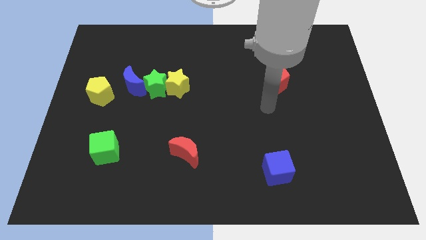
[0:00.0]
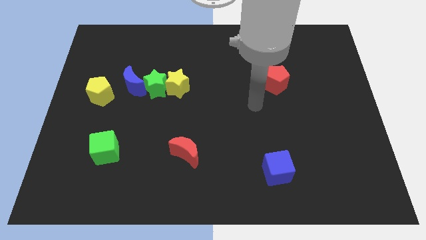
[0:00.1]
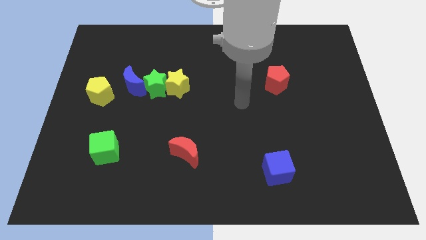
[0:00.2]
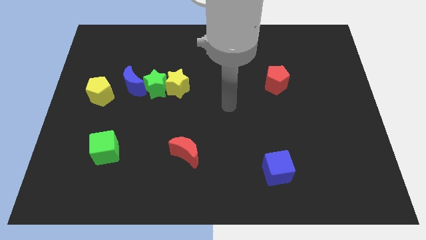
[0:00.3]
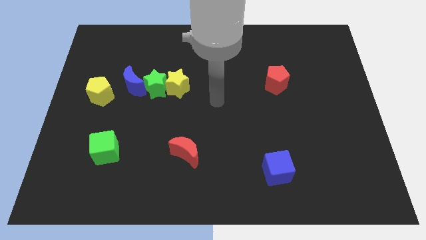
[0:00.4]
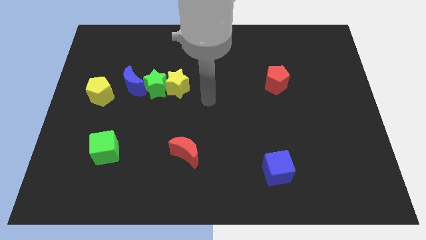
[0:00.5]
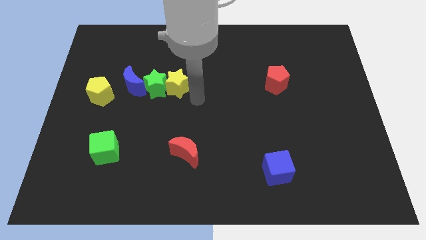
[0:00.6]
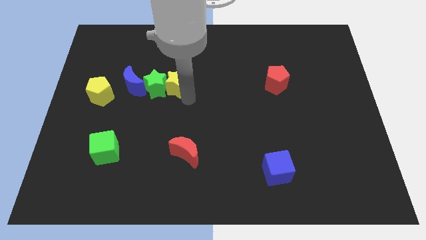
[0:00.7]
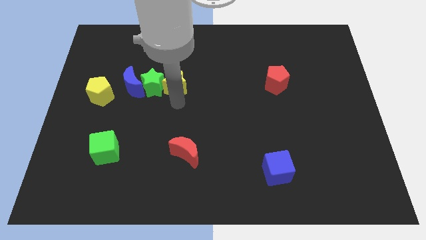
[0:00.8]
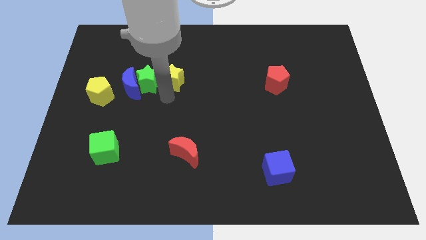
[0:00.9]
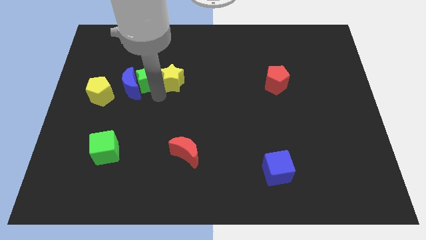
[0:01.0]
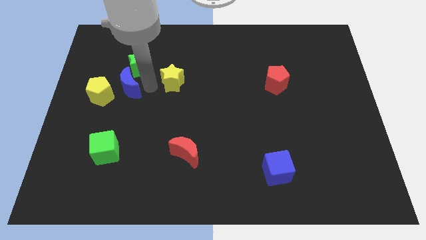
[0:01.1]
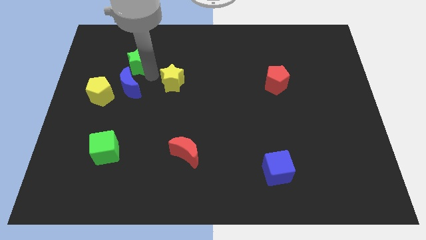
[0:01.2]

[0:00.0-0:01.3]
pull the yellow star apart from the green star

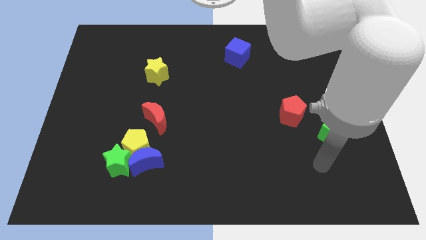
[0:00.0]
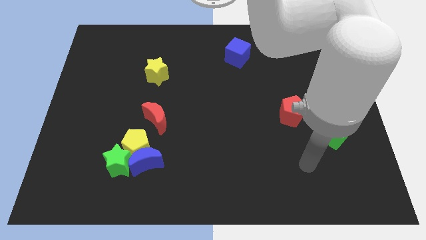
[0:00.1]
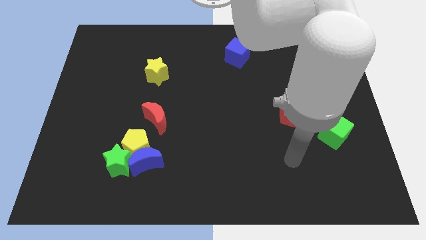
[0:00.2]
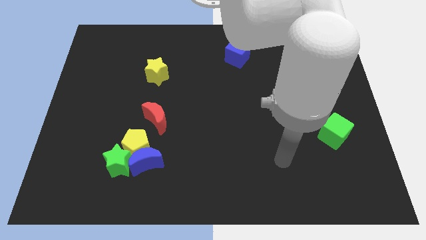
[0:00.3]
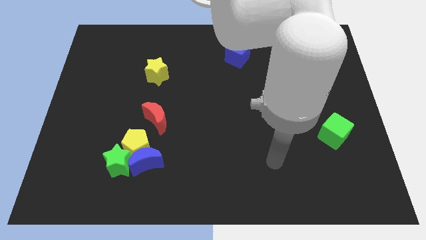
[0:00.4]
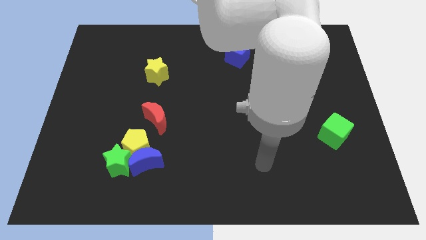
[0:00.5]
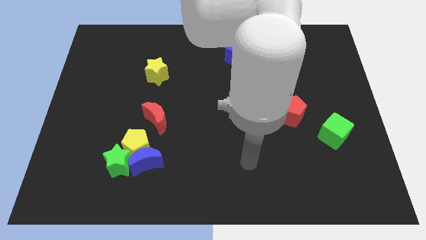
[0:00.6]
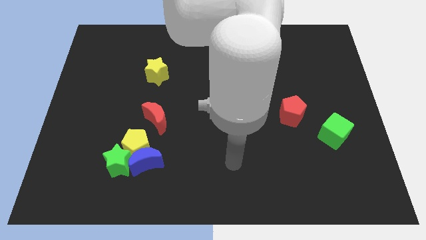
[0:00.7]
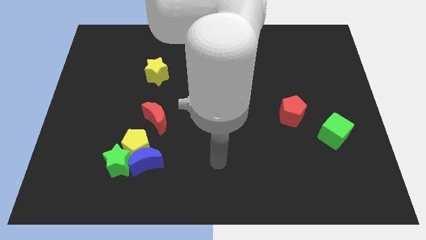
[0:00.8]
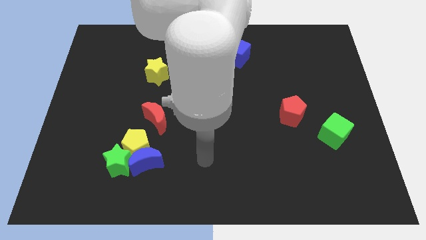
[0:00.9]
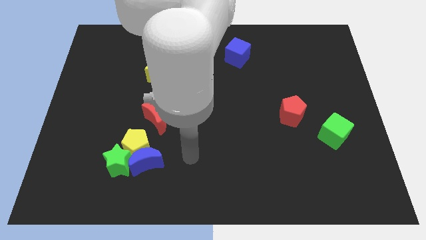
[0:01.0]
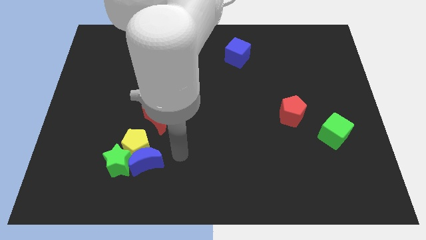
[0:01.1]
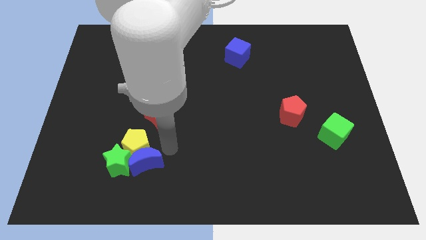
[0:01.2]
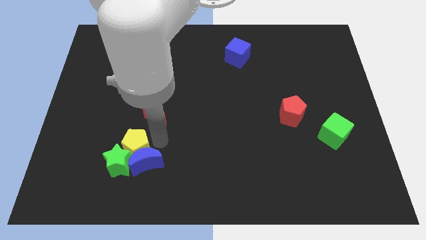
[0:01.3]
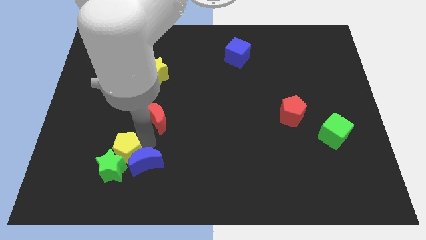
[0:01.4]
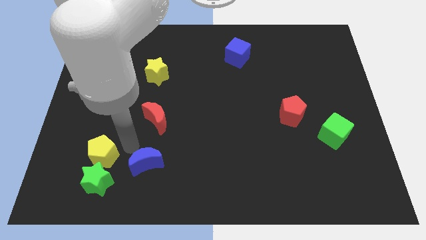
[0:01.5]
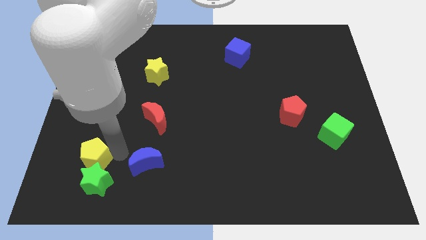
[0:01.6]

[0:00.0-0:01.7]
move the blue moon away from the yellow pentagon and green star

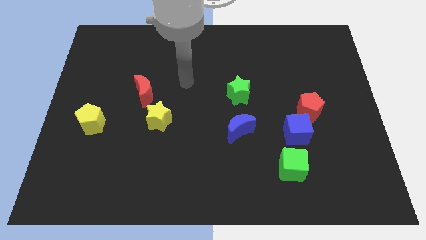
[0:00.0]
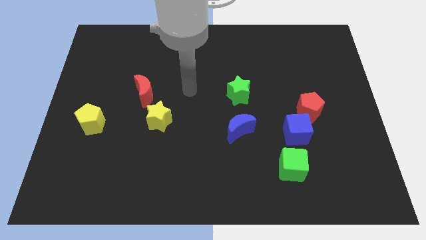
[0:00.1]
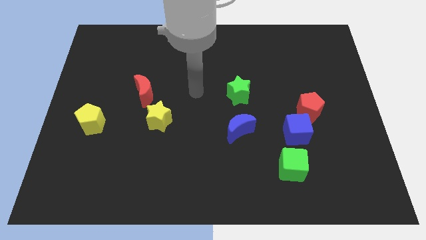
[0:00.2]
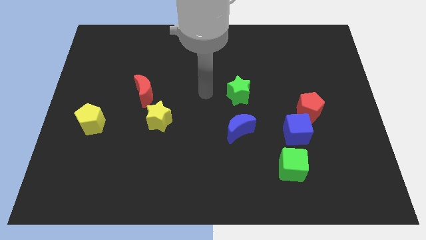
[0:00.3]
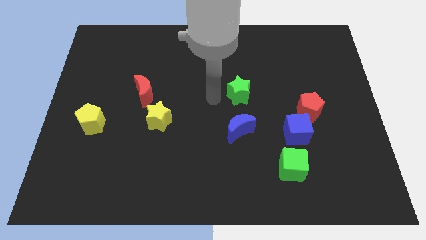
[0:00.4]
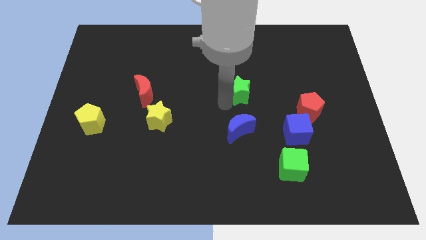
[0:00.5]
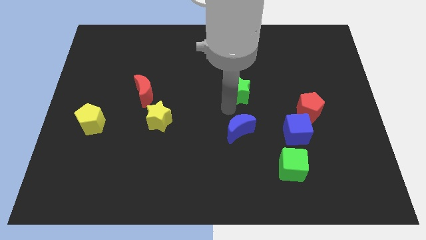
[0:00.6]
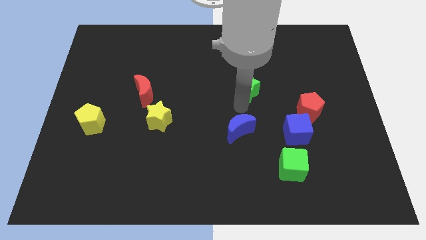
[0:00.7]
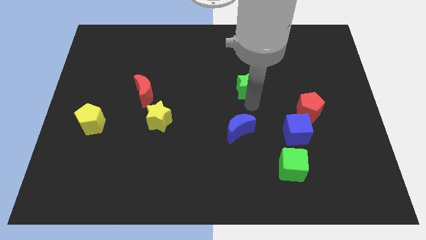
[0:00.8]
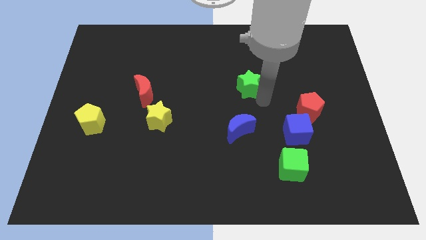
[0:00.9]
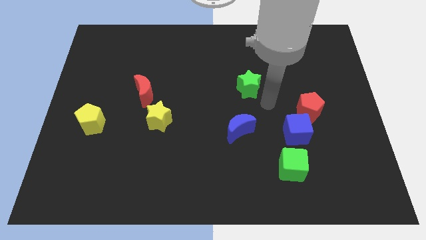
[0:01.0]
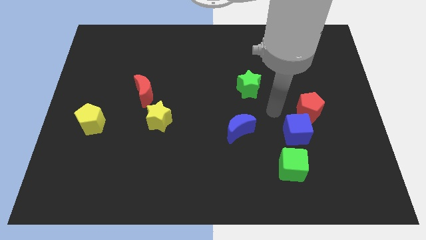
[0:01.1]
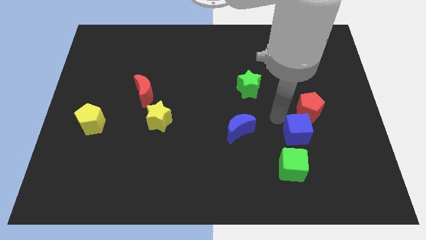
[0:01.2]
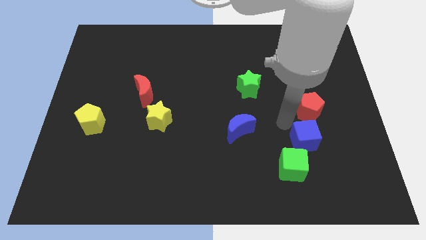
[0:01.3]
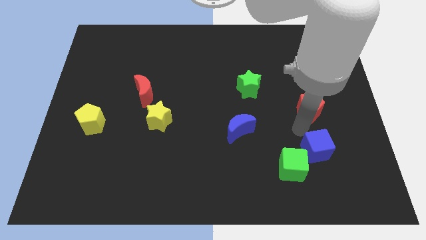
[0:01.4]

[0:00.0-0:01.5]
pull the red pentagon apart from the blue cube

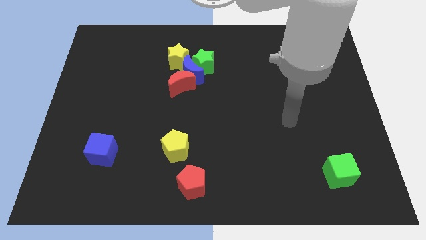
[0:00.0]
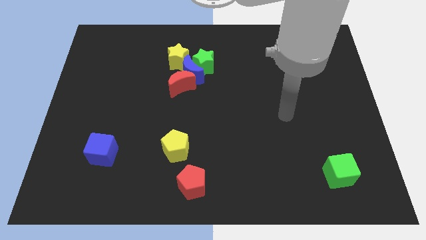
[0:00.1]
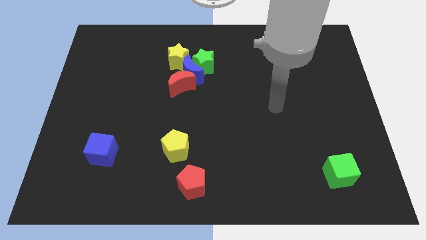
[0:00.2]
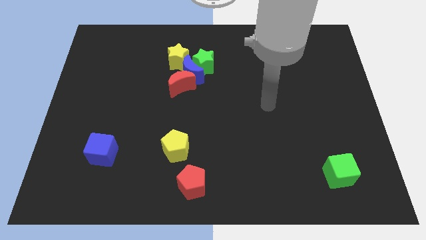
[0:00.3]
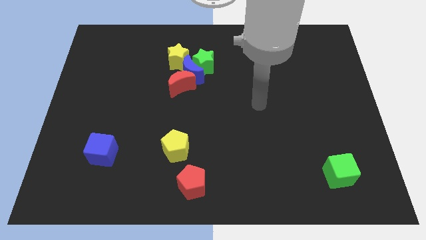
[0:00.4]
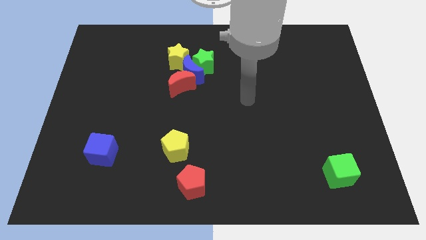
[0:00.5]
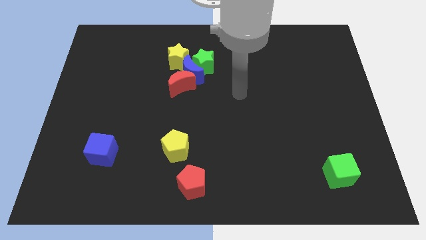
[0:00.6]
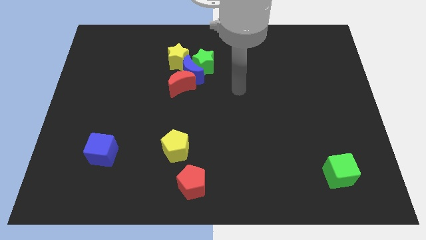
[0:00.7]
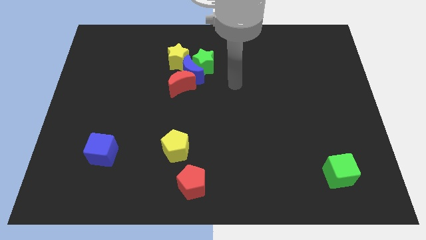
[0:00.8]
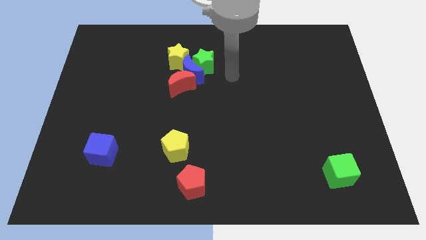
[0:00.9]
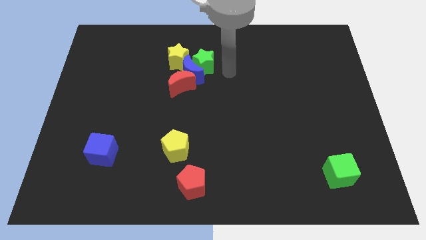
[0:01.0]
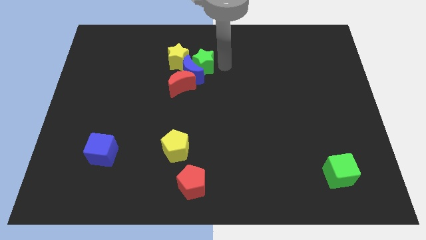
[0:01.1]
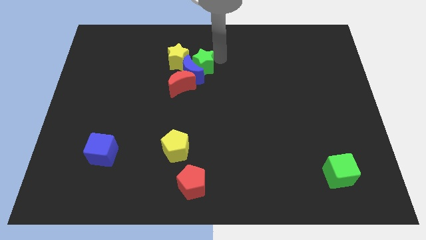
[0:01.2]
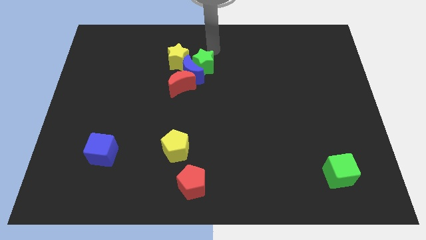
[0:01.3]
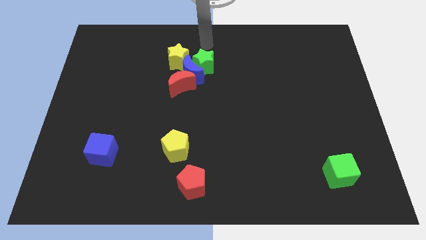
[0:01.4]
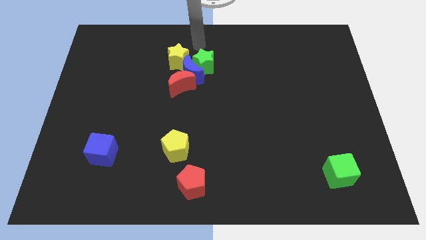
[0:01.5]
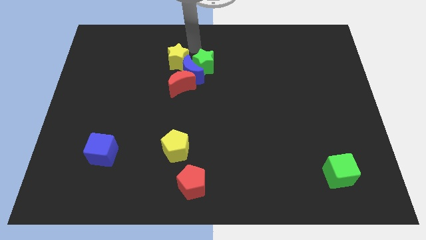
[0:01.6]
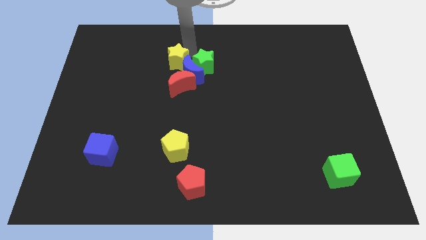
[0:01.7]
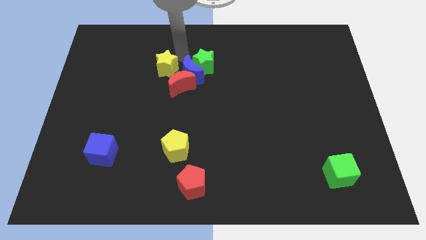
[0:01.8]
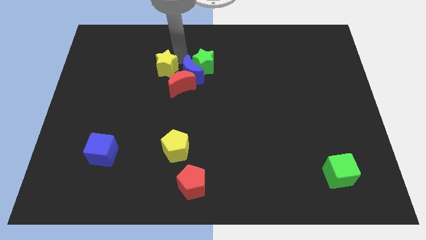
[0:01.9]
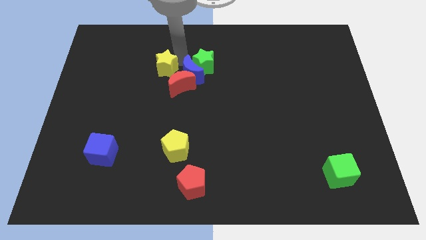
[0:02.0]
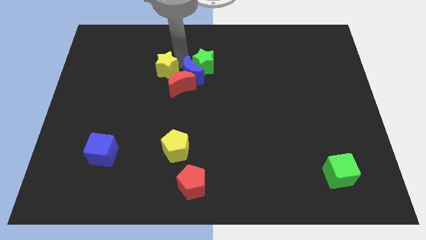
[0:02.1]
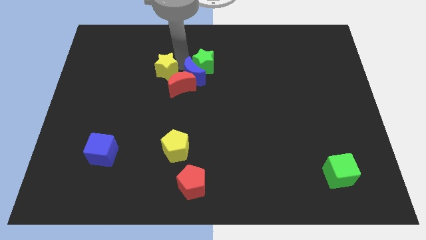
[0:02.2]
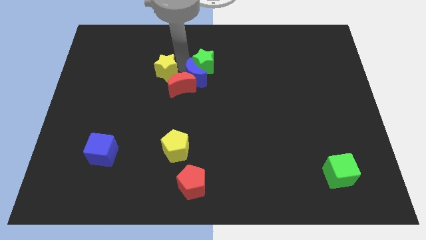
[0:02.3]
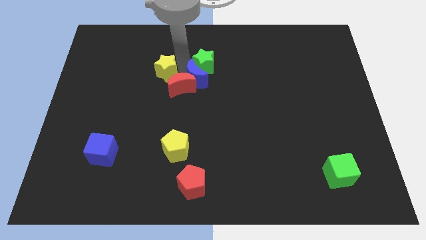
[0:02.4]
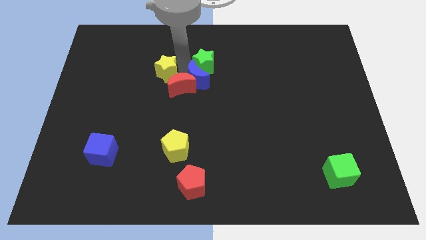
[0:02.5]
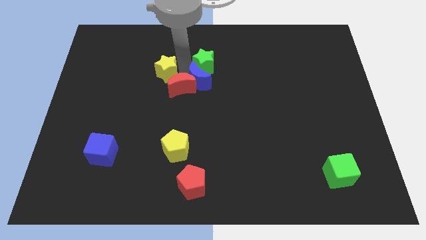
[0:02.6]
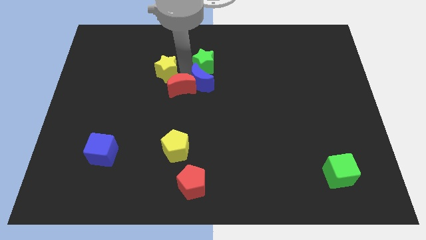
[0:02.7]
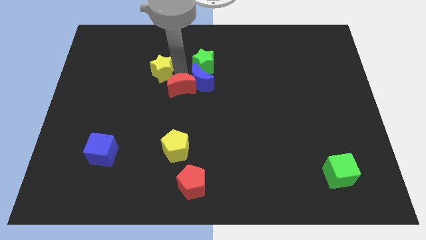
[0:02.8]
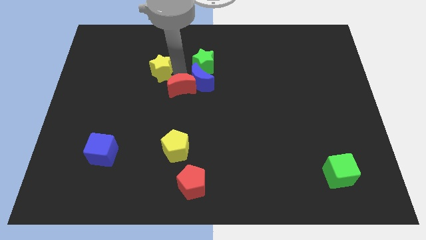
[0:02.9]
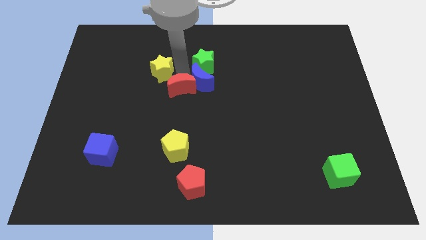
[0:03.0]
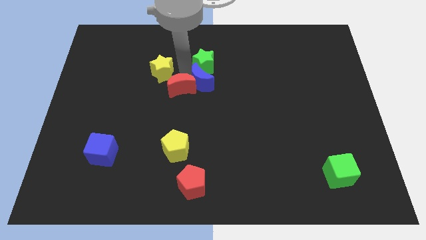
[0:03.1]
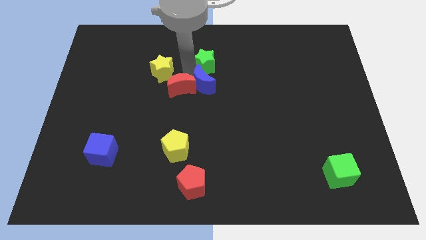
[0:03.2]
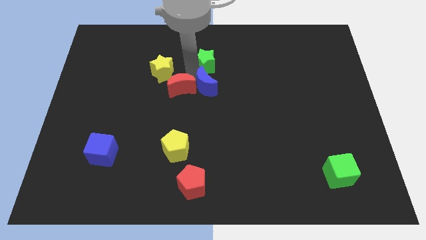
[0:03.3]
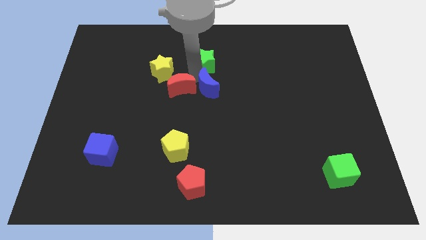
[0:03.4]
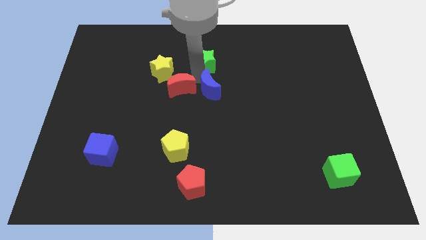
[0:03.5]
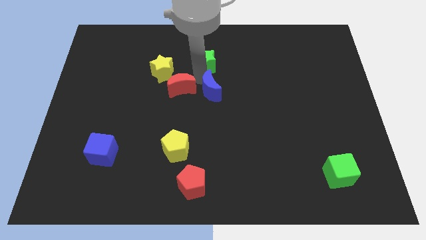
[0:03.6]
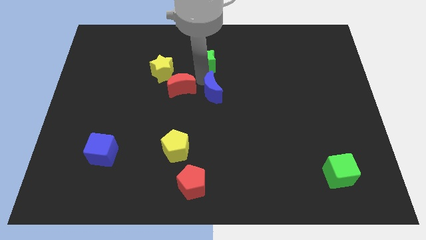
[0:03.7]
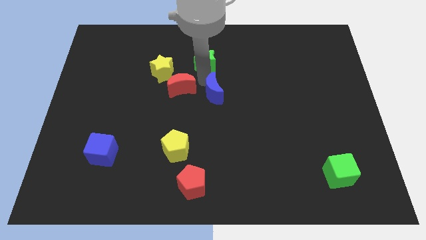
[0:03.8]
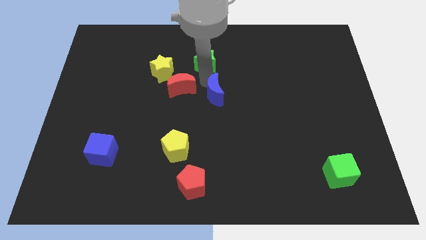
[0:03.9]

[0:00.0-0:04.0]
separate the blue moon from the green star, red moon, and yellow star

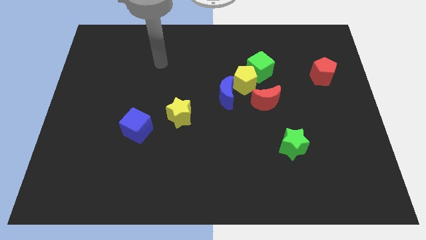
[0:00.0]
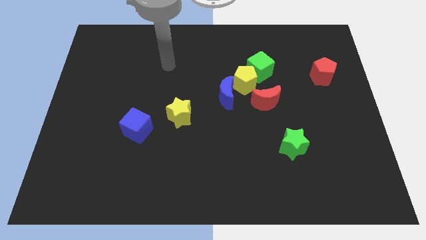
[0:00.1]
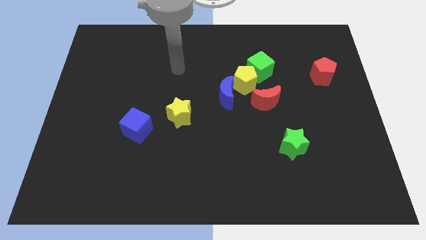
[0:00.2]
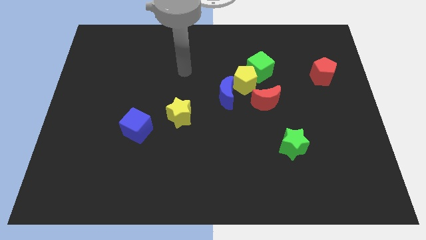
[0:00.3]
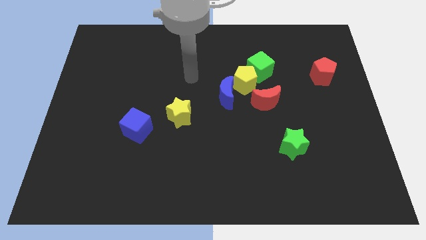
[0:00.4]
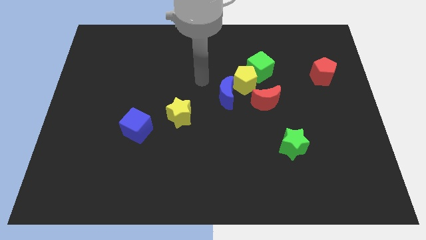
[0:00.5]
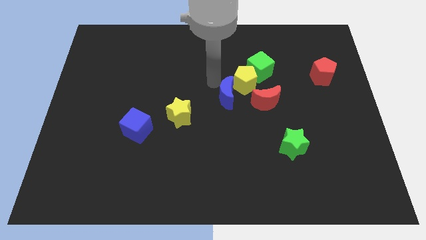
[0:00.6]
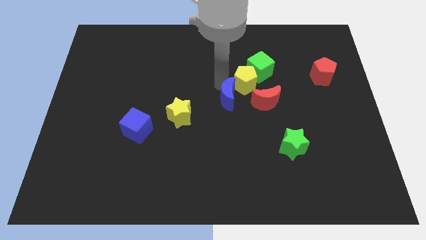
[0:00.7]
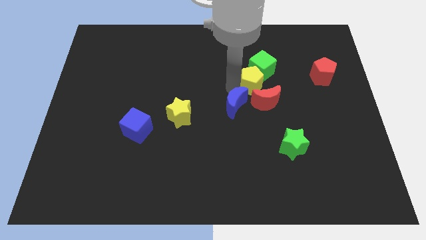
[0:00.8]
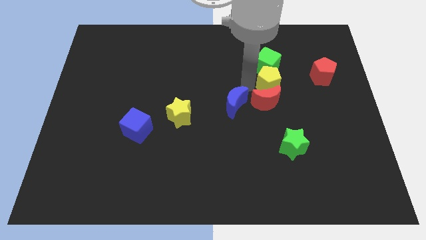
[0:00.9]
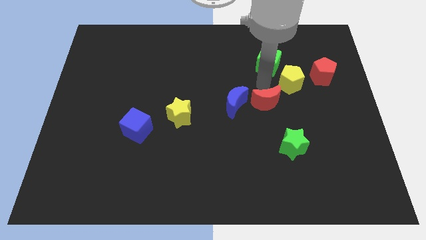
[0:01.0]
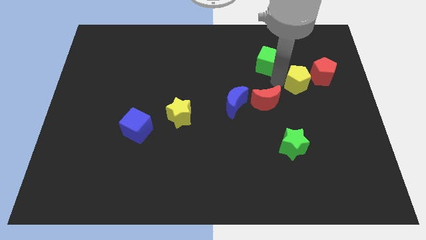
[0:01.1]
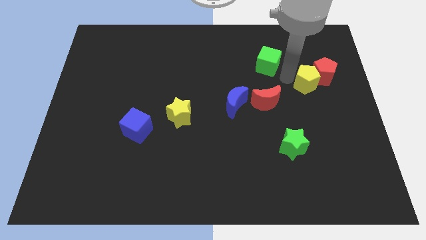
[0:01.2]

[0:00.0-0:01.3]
pull the green cube apart from the yellow pentagon
